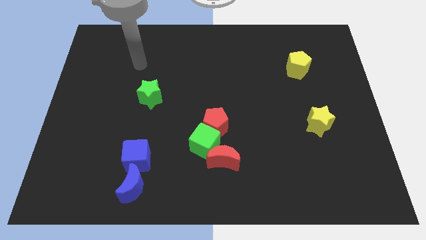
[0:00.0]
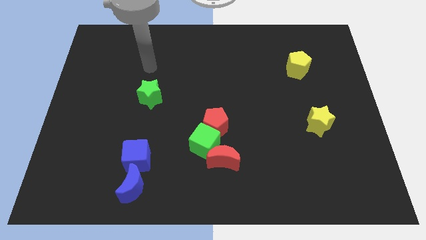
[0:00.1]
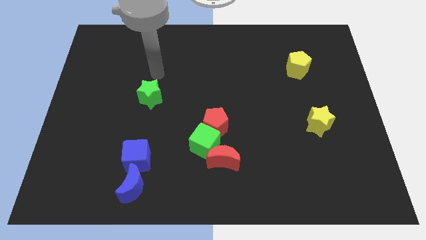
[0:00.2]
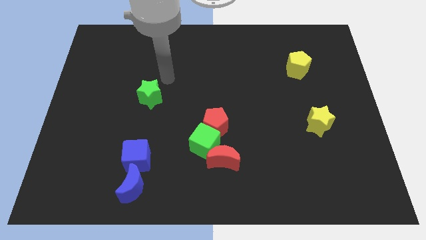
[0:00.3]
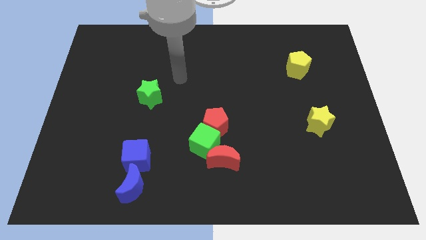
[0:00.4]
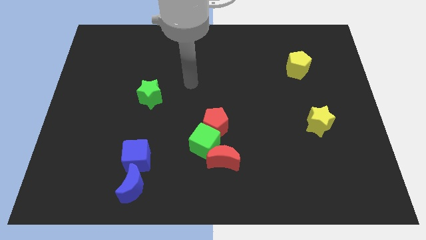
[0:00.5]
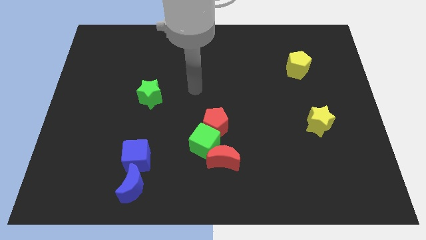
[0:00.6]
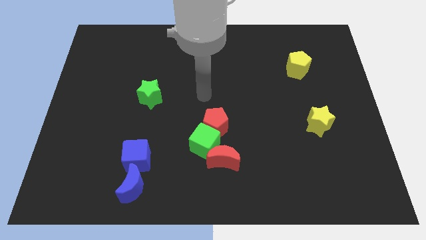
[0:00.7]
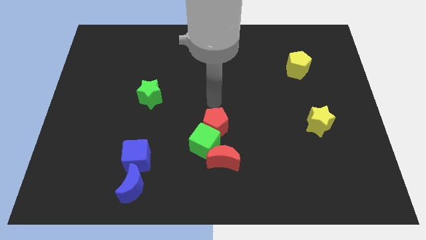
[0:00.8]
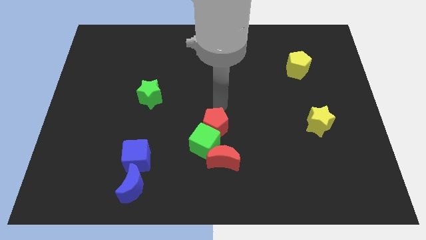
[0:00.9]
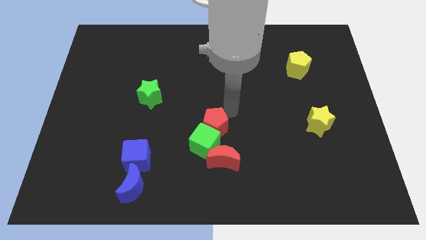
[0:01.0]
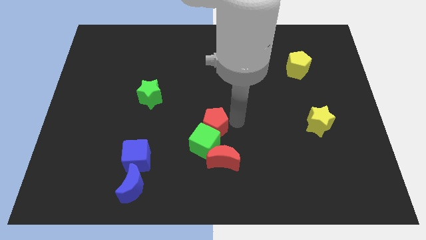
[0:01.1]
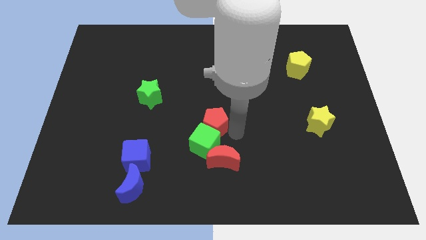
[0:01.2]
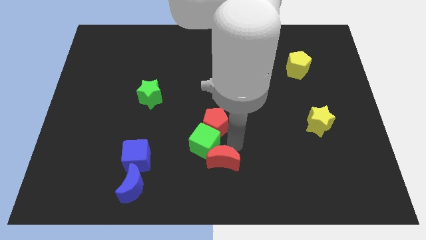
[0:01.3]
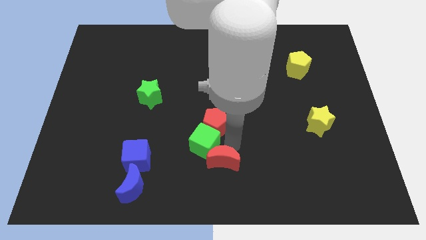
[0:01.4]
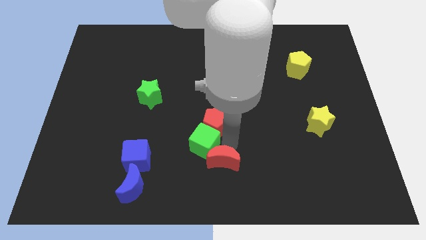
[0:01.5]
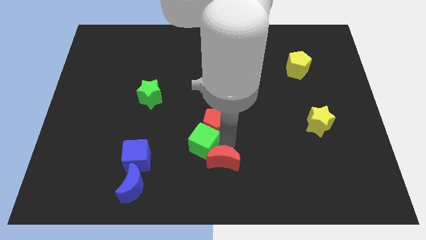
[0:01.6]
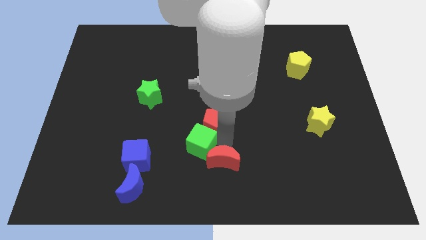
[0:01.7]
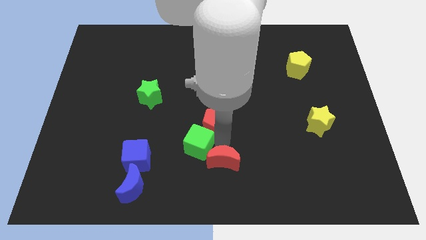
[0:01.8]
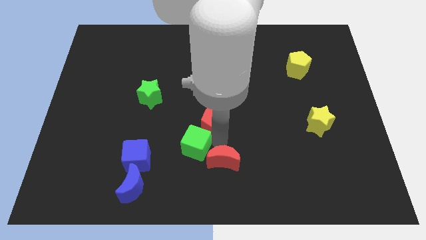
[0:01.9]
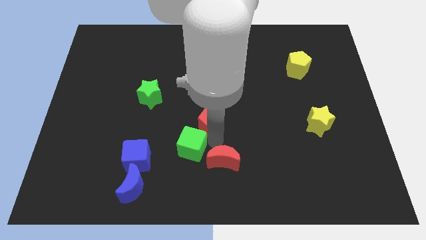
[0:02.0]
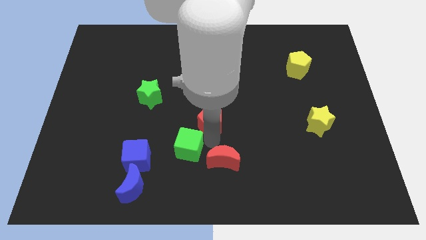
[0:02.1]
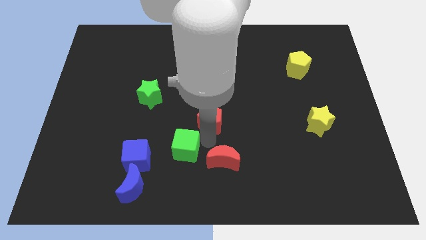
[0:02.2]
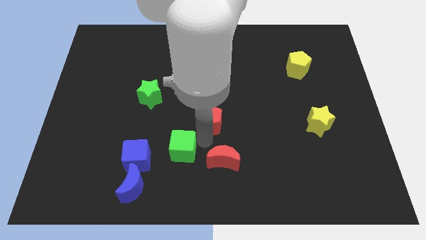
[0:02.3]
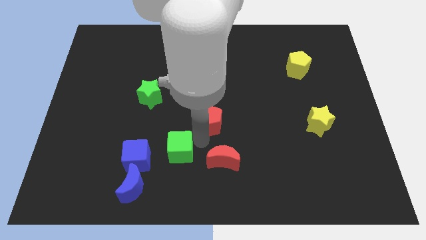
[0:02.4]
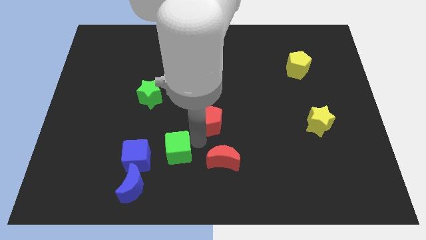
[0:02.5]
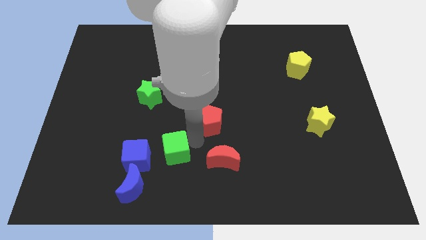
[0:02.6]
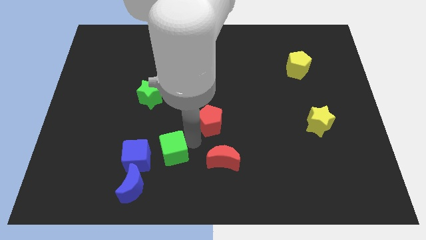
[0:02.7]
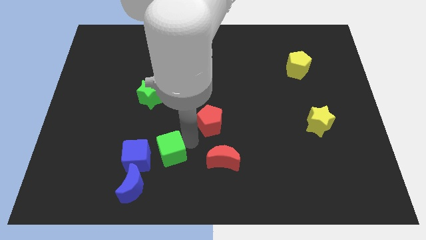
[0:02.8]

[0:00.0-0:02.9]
separate the green cube from the red pentagon and red moon

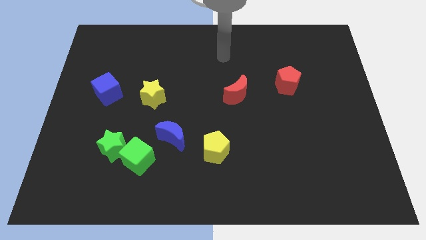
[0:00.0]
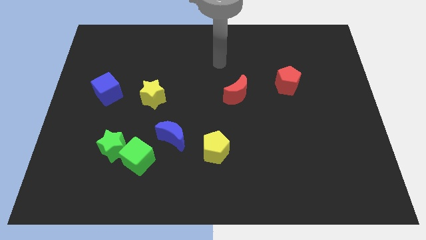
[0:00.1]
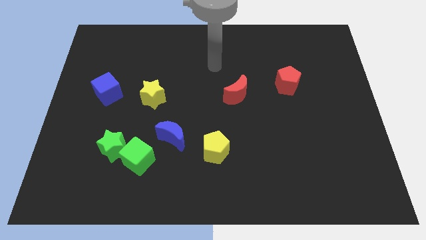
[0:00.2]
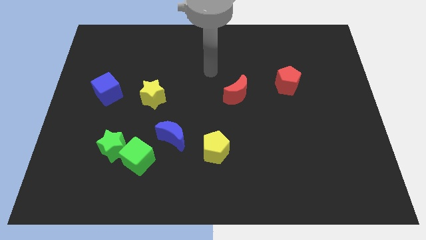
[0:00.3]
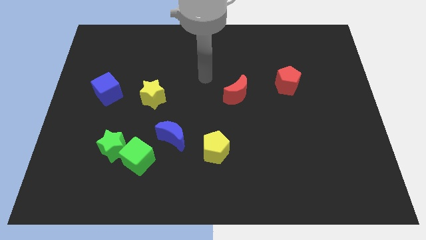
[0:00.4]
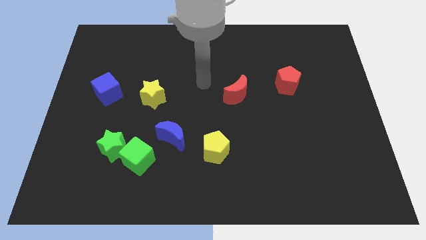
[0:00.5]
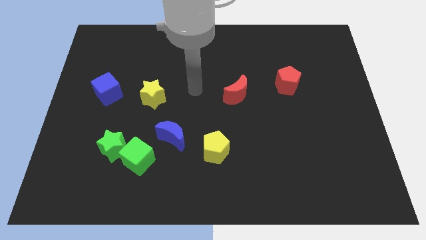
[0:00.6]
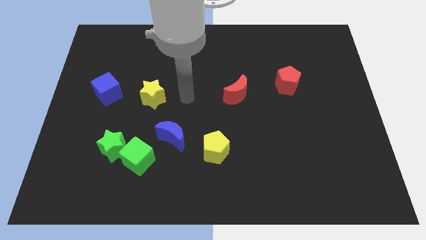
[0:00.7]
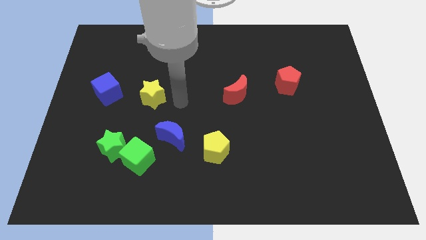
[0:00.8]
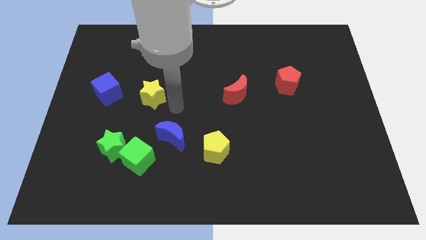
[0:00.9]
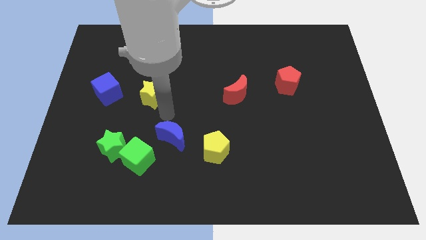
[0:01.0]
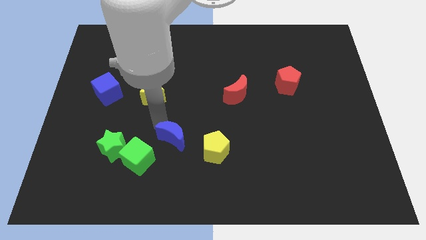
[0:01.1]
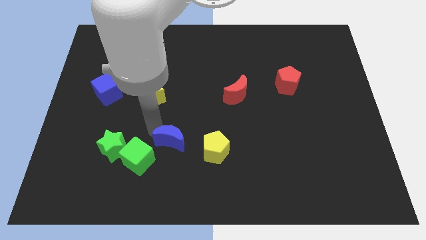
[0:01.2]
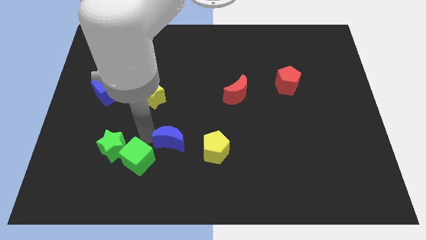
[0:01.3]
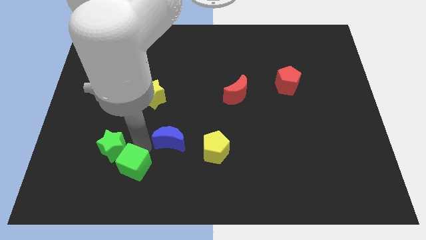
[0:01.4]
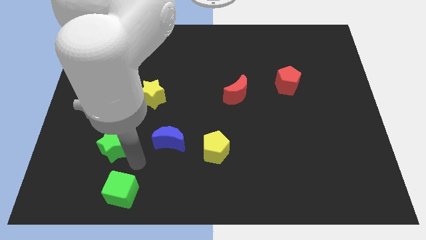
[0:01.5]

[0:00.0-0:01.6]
separate the green star from the green cube

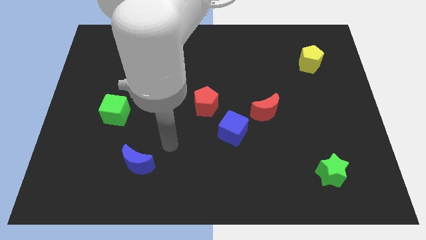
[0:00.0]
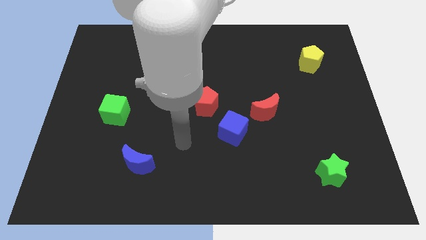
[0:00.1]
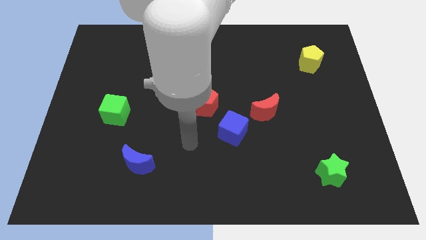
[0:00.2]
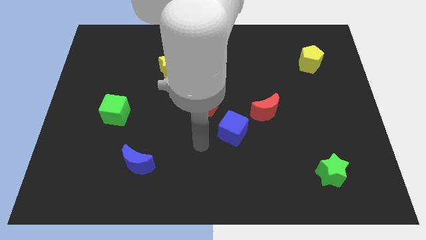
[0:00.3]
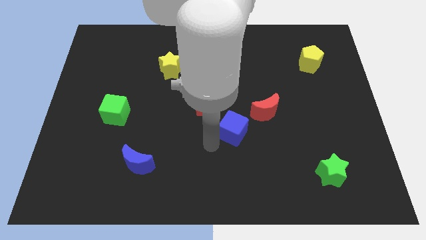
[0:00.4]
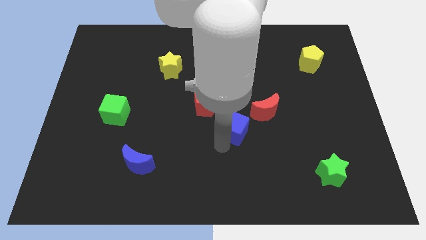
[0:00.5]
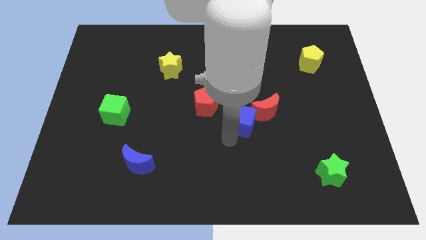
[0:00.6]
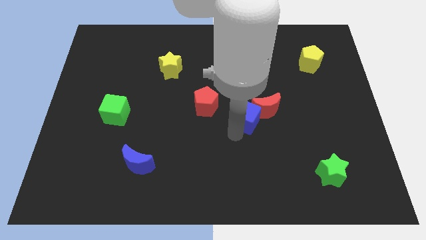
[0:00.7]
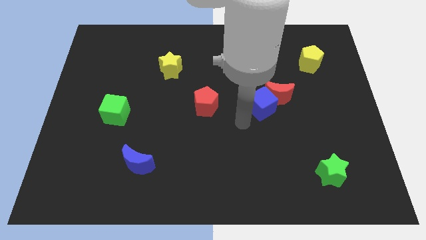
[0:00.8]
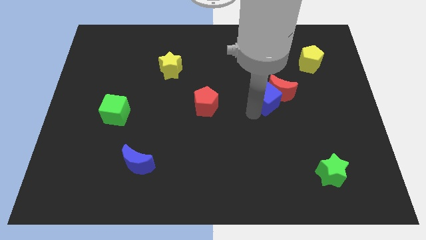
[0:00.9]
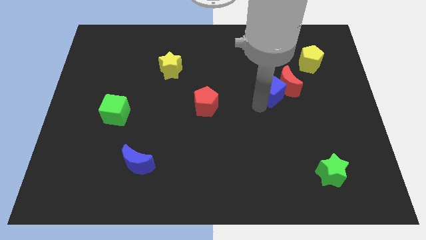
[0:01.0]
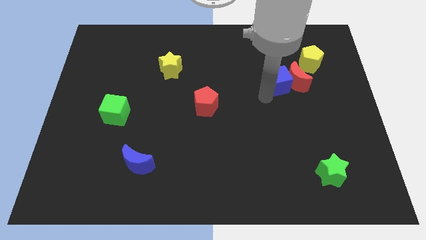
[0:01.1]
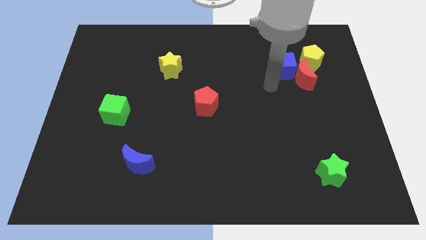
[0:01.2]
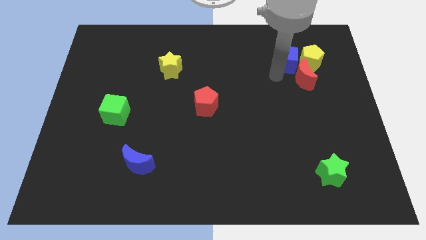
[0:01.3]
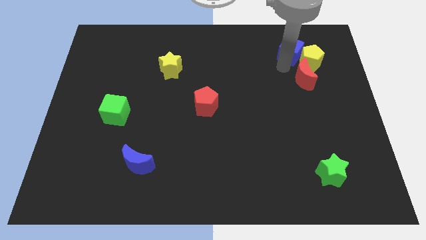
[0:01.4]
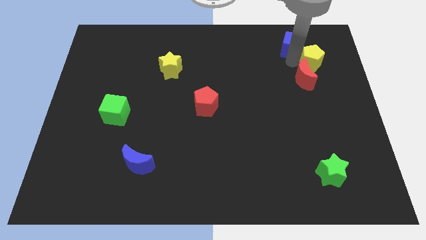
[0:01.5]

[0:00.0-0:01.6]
separate the red moon from the blue cube

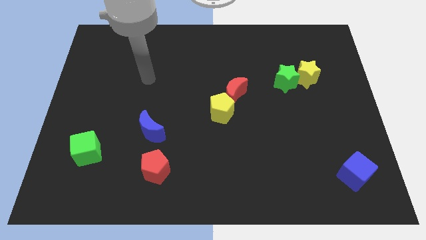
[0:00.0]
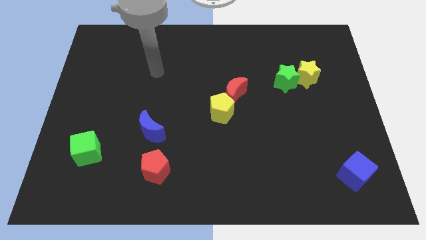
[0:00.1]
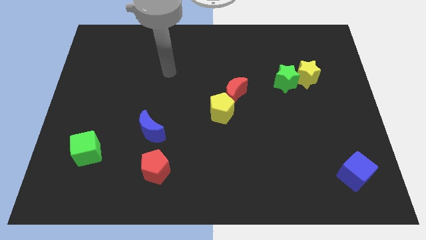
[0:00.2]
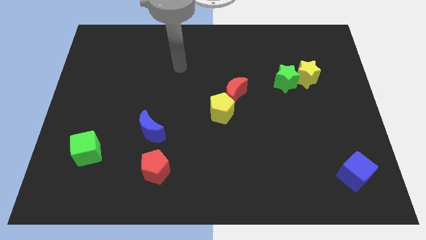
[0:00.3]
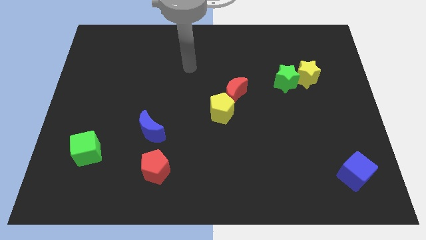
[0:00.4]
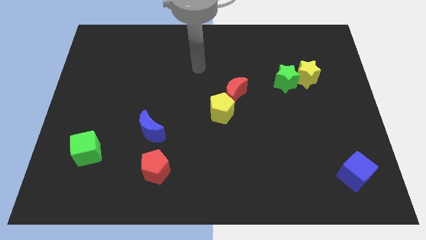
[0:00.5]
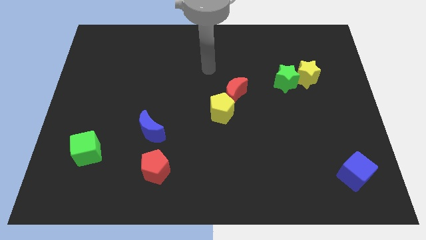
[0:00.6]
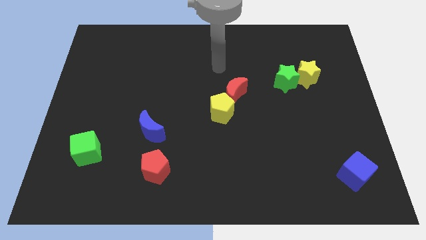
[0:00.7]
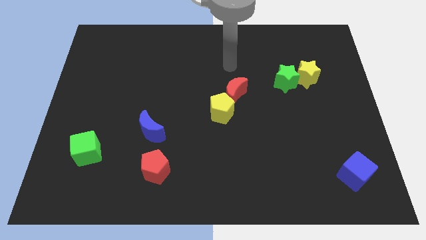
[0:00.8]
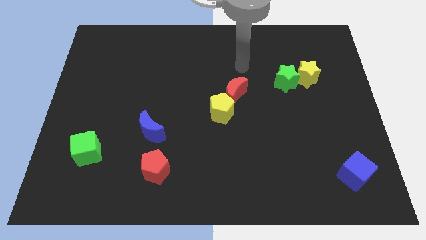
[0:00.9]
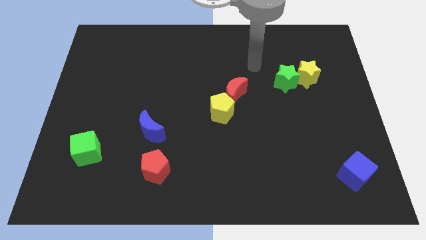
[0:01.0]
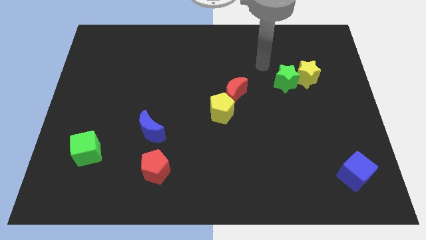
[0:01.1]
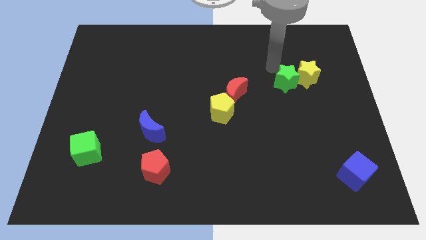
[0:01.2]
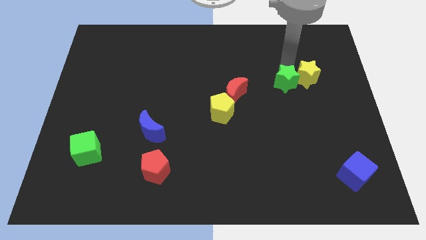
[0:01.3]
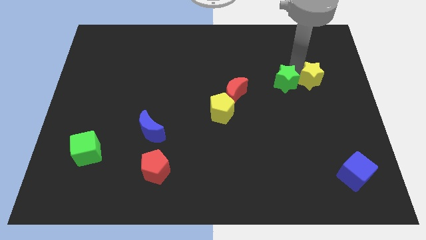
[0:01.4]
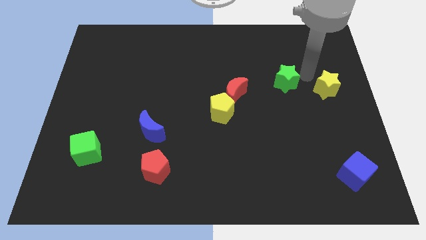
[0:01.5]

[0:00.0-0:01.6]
pull the green star apart from the yellow star

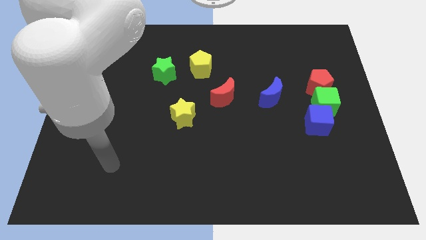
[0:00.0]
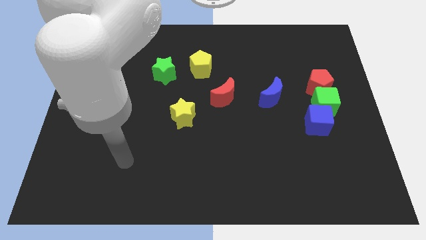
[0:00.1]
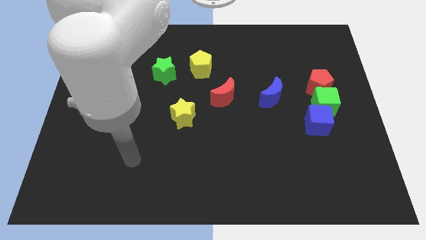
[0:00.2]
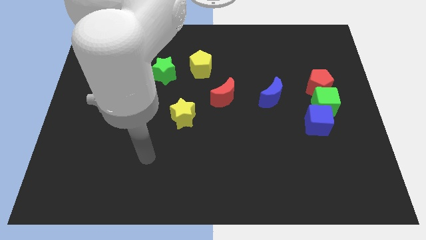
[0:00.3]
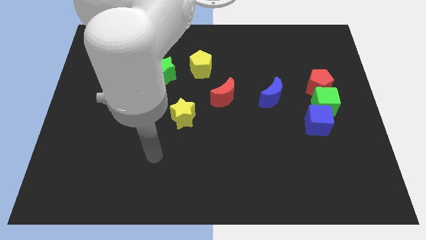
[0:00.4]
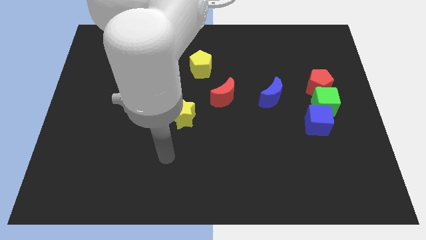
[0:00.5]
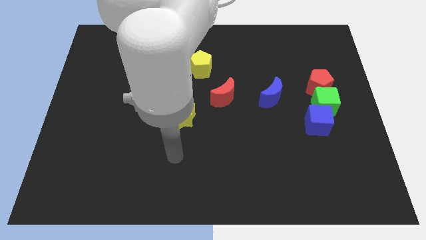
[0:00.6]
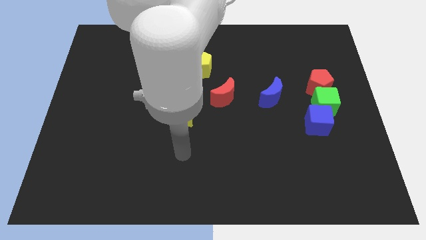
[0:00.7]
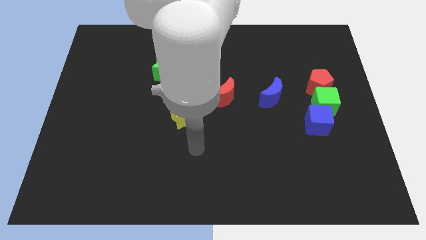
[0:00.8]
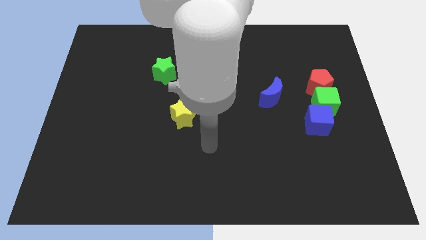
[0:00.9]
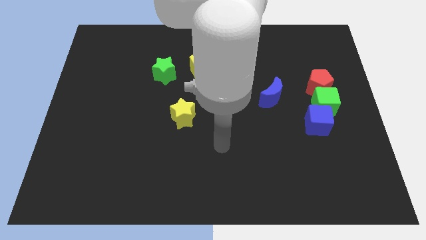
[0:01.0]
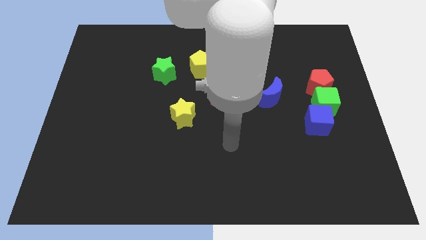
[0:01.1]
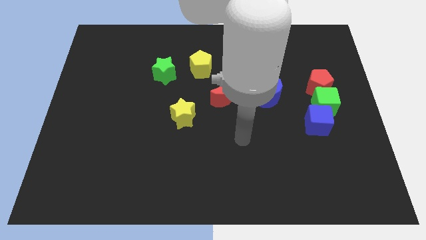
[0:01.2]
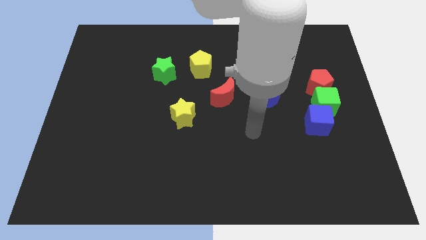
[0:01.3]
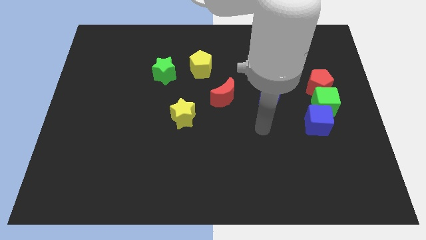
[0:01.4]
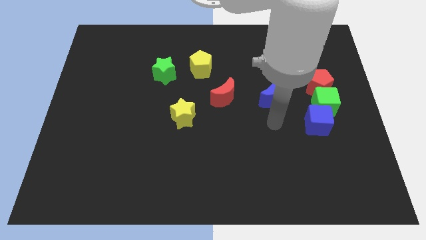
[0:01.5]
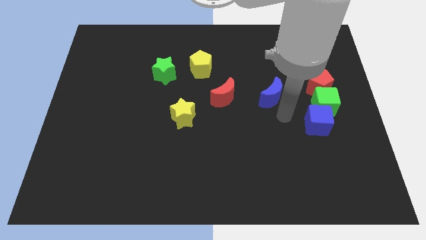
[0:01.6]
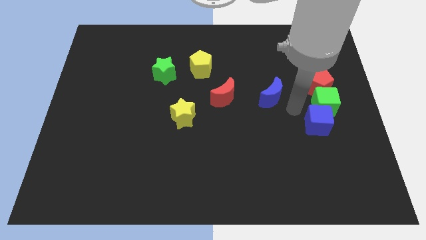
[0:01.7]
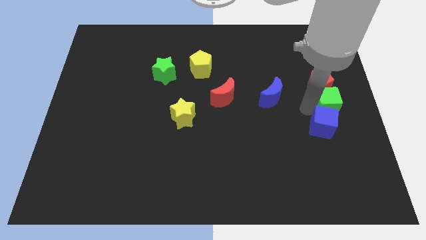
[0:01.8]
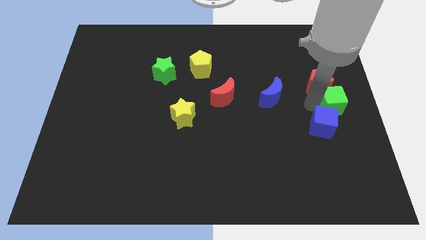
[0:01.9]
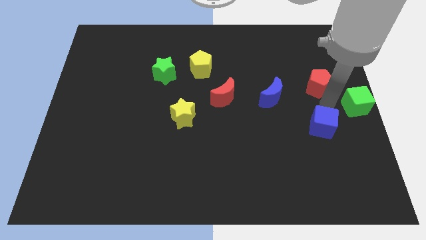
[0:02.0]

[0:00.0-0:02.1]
separate the blue cube from the green cube
